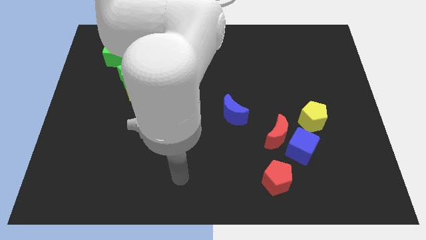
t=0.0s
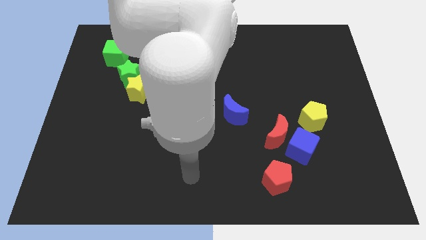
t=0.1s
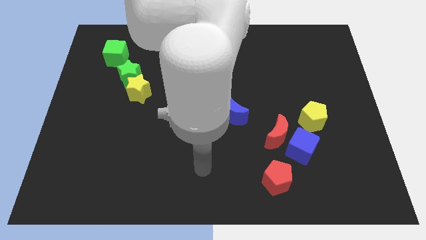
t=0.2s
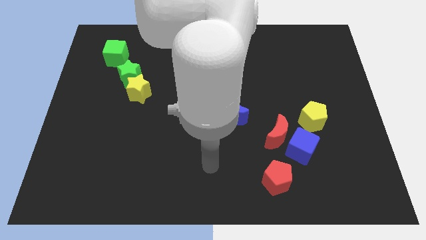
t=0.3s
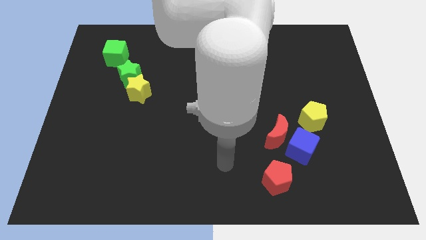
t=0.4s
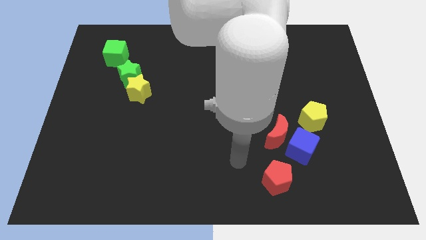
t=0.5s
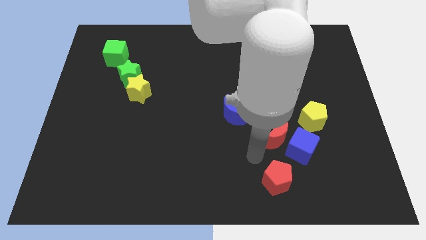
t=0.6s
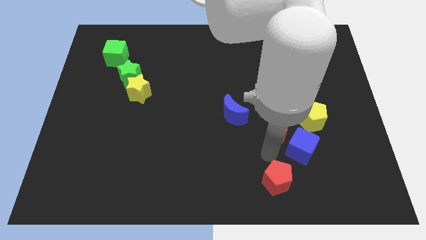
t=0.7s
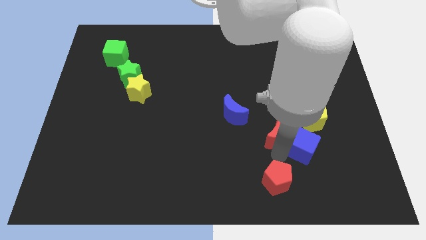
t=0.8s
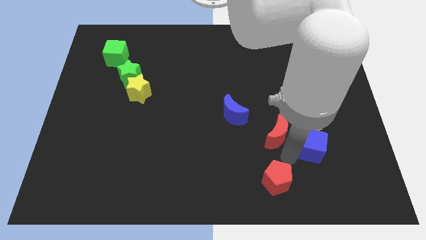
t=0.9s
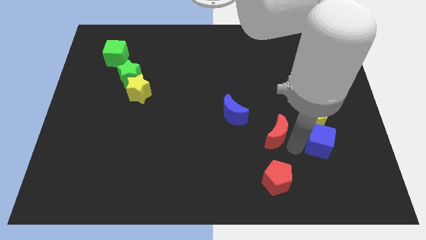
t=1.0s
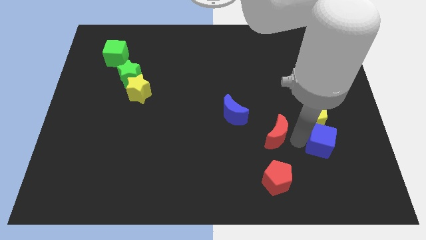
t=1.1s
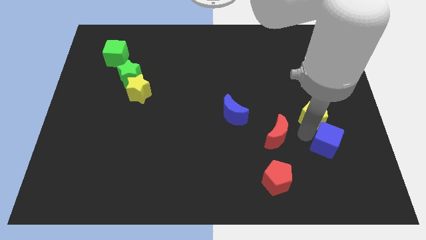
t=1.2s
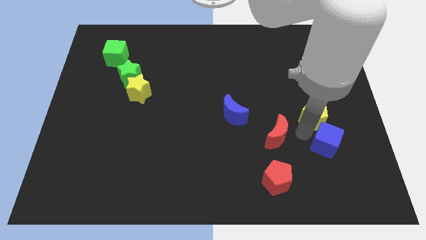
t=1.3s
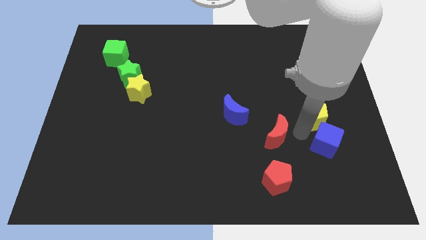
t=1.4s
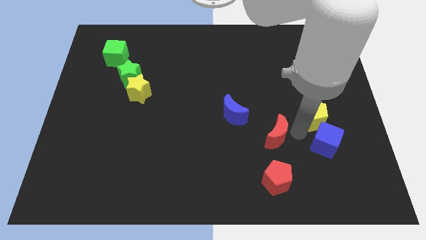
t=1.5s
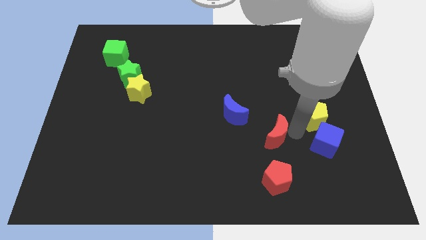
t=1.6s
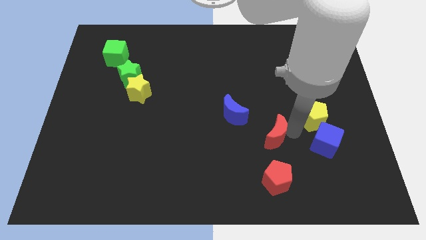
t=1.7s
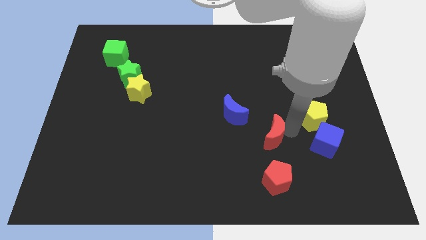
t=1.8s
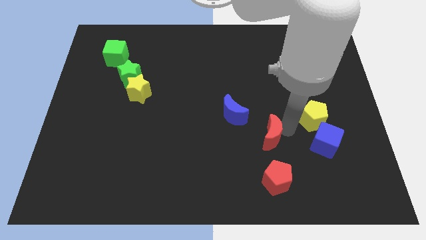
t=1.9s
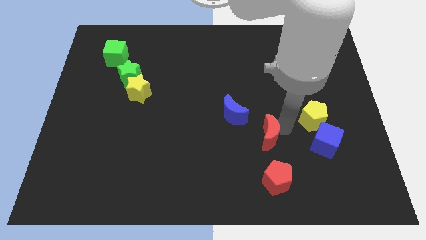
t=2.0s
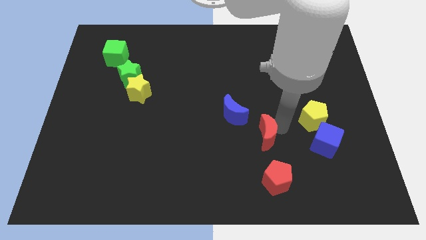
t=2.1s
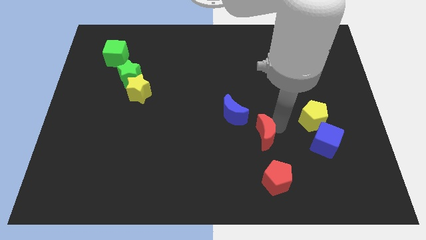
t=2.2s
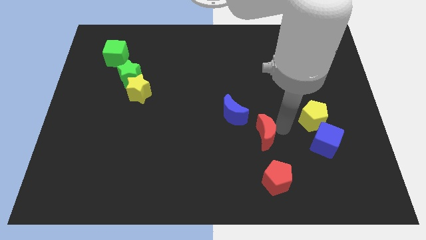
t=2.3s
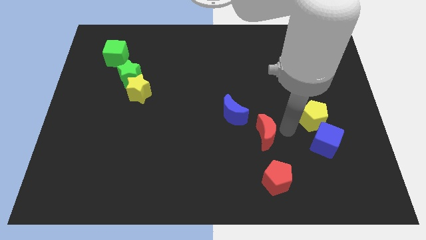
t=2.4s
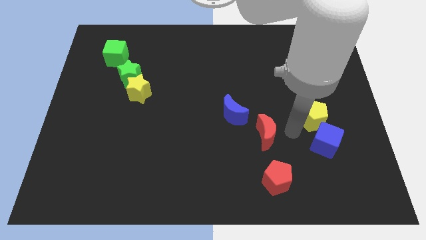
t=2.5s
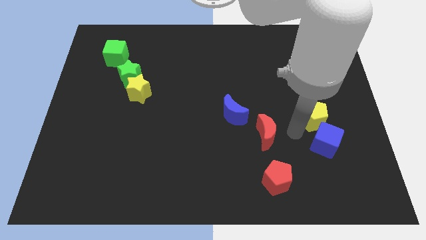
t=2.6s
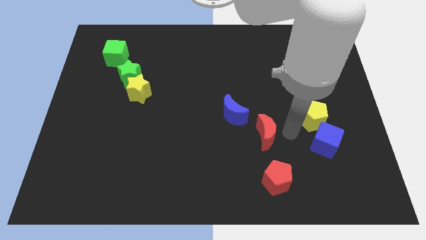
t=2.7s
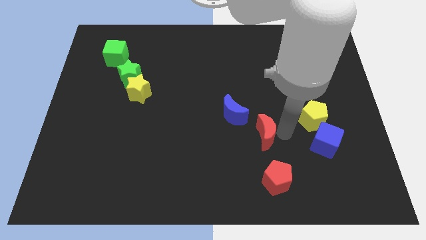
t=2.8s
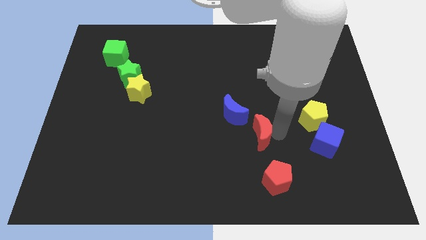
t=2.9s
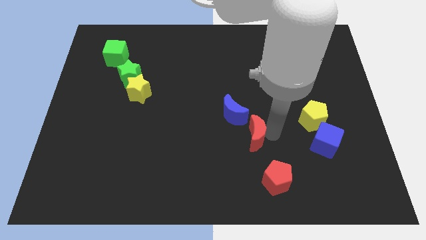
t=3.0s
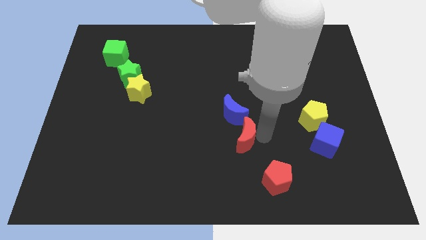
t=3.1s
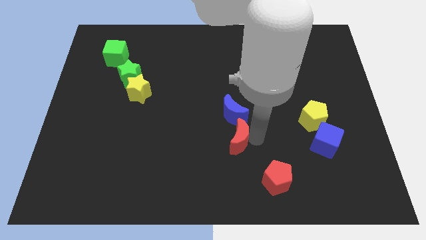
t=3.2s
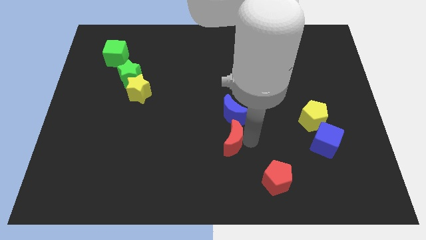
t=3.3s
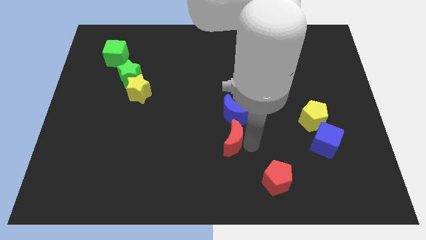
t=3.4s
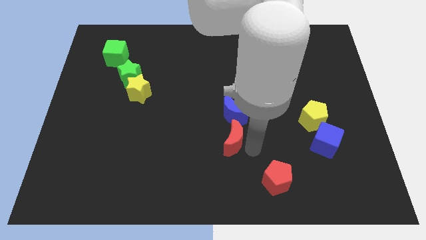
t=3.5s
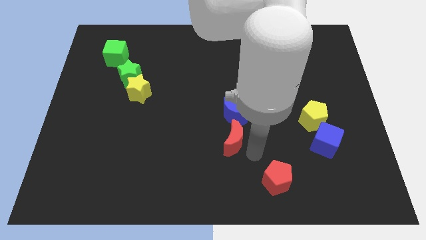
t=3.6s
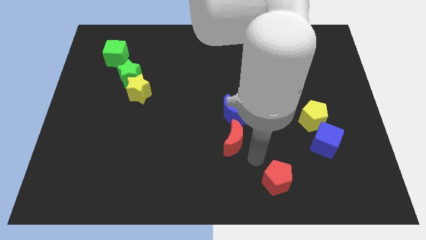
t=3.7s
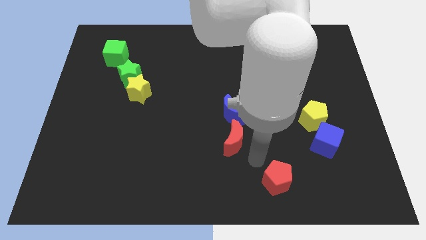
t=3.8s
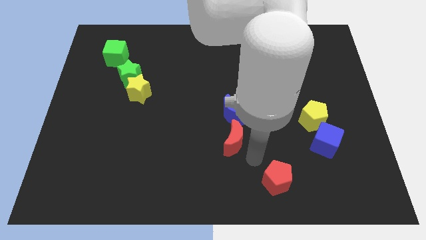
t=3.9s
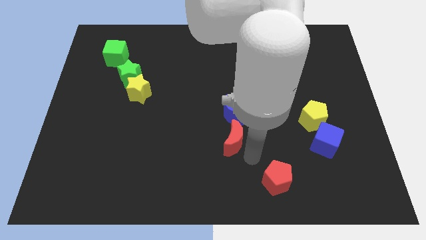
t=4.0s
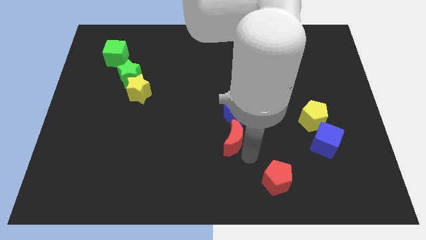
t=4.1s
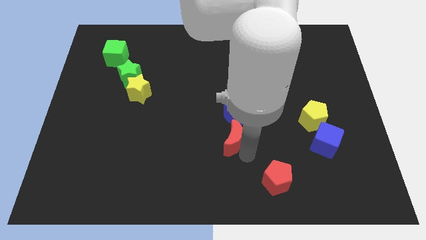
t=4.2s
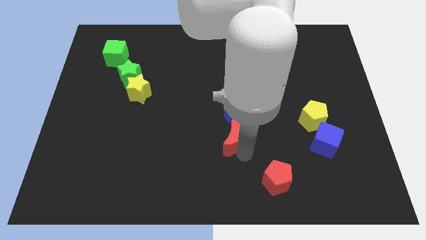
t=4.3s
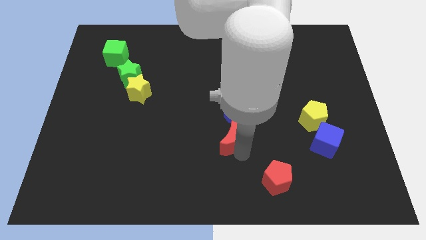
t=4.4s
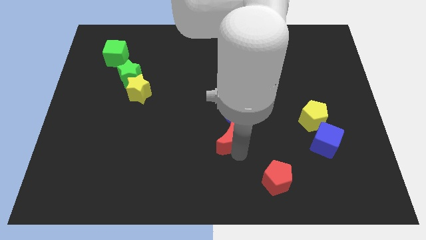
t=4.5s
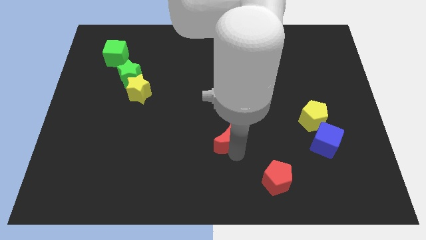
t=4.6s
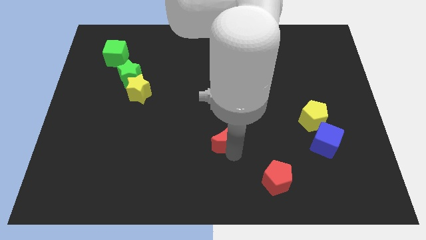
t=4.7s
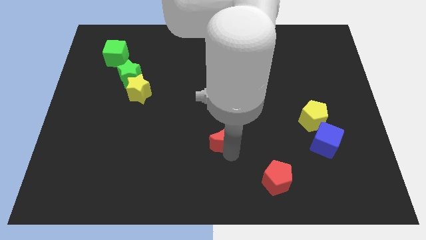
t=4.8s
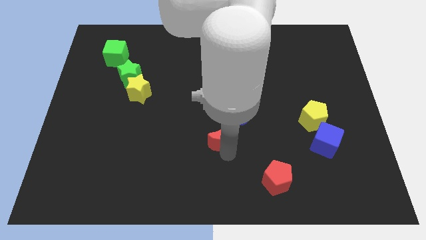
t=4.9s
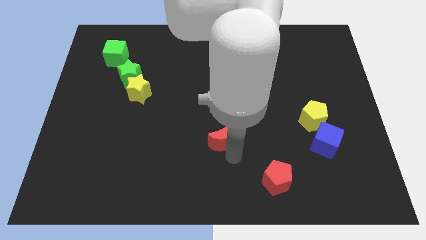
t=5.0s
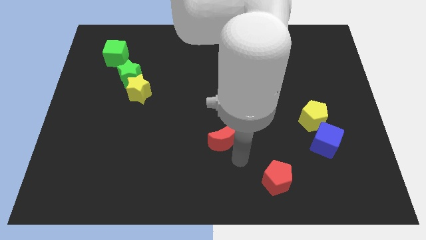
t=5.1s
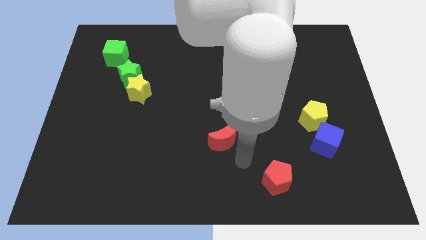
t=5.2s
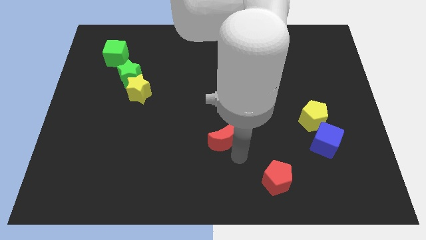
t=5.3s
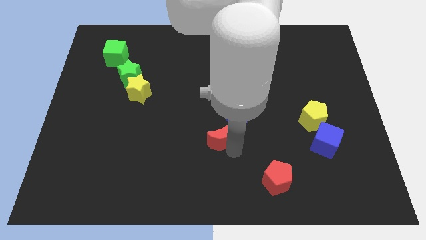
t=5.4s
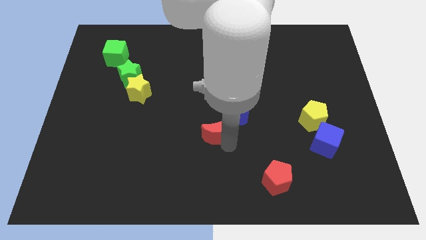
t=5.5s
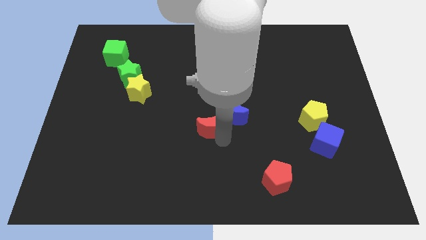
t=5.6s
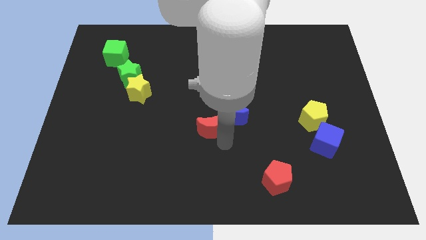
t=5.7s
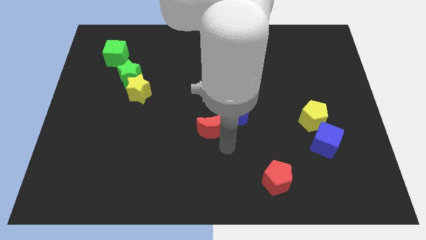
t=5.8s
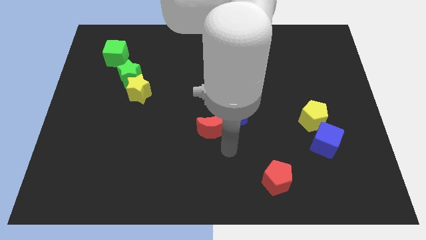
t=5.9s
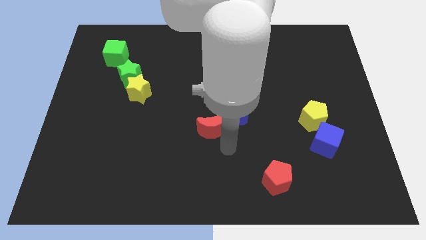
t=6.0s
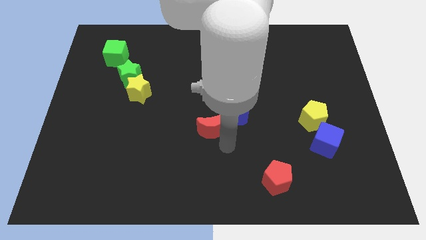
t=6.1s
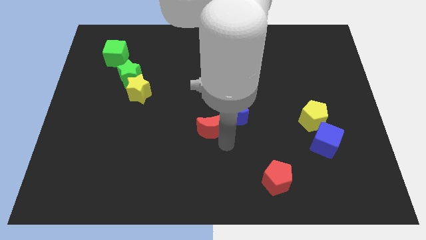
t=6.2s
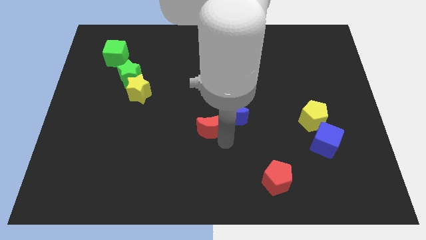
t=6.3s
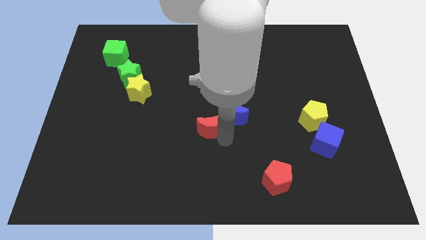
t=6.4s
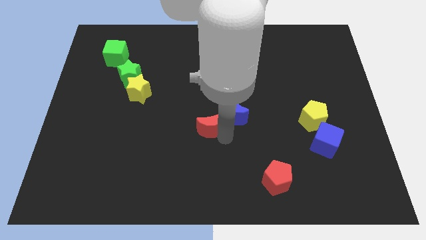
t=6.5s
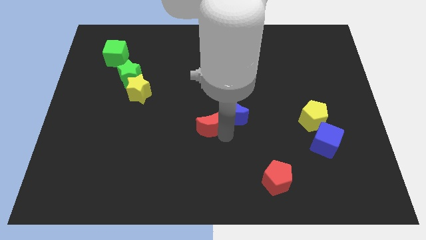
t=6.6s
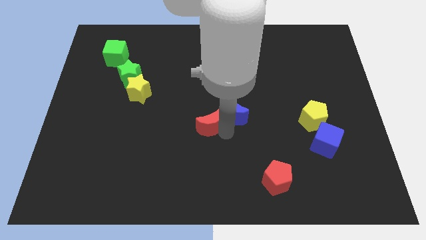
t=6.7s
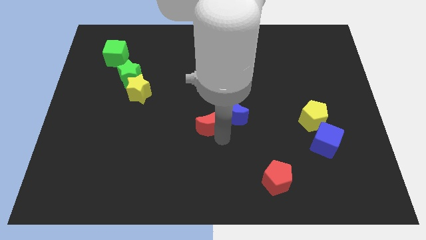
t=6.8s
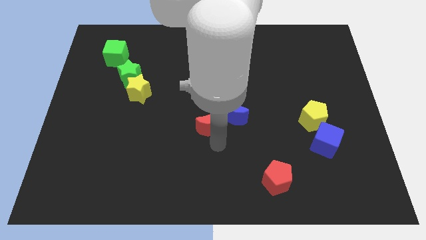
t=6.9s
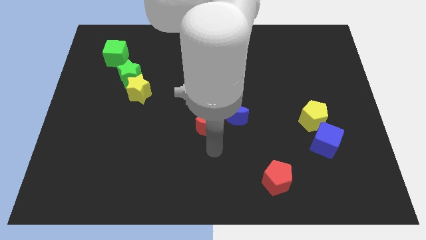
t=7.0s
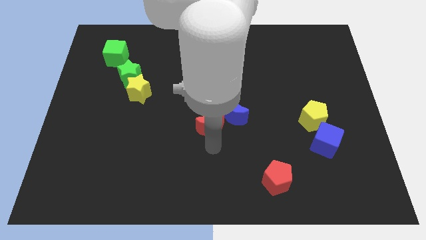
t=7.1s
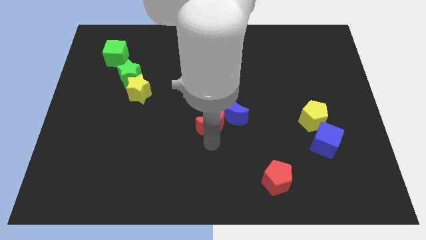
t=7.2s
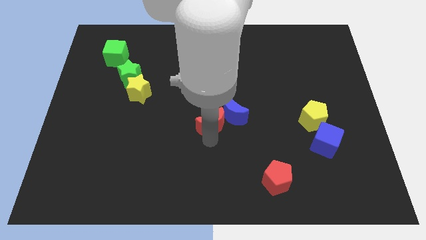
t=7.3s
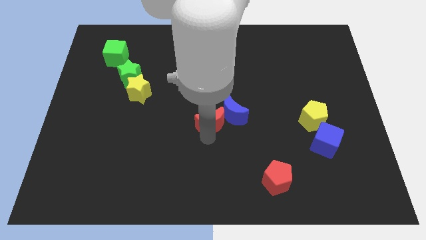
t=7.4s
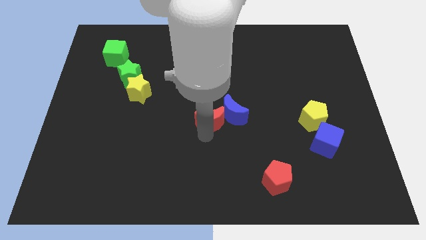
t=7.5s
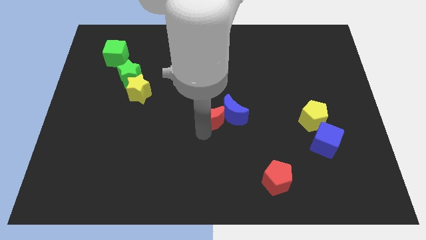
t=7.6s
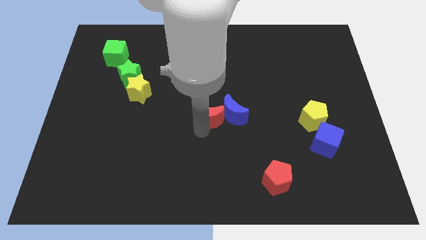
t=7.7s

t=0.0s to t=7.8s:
slide the red moon to the top left side of the blue moon
